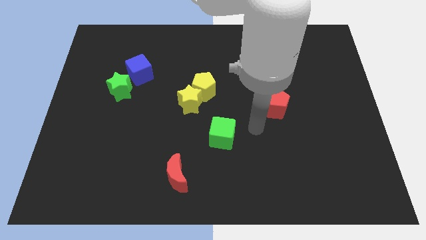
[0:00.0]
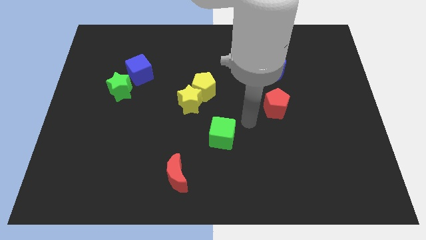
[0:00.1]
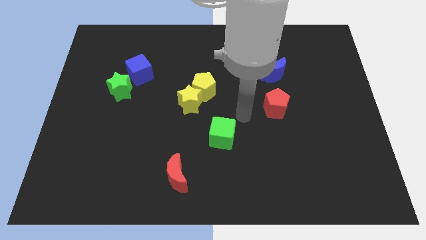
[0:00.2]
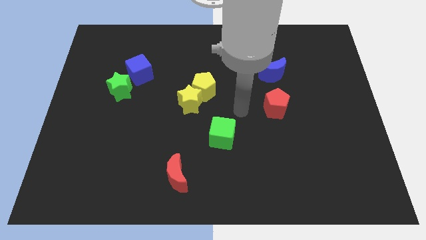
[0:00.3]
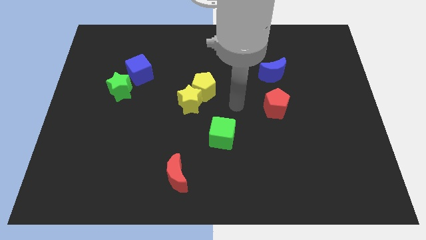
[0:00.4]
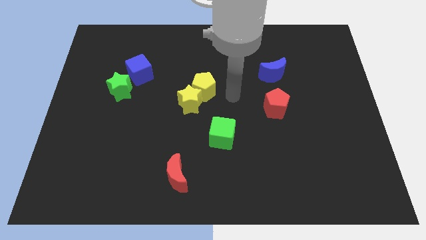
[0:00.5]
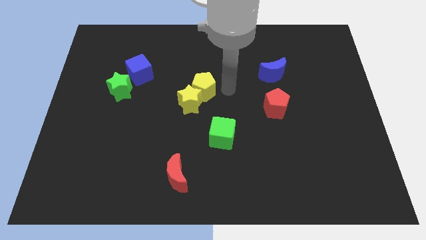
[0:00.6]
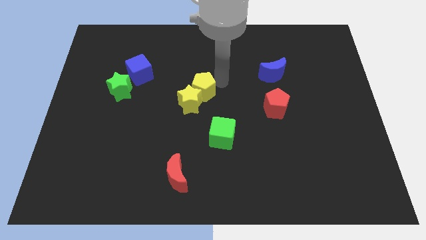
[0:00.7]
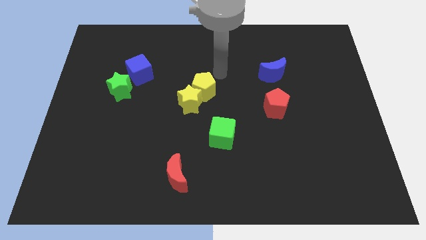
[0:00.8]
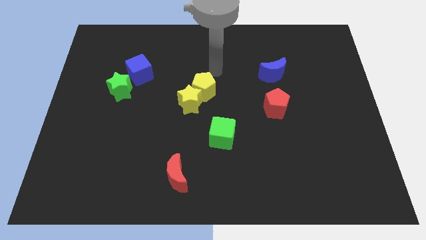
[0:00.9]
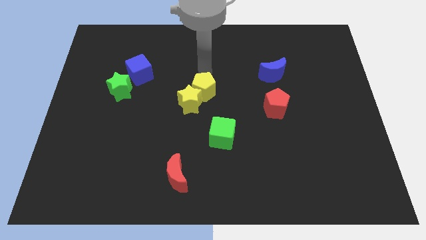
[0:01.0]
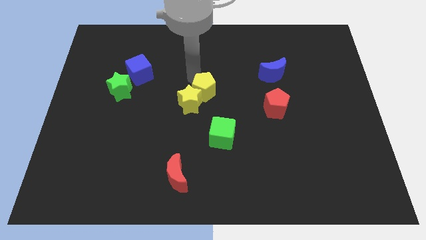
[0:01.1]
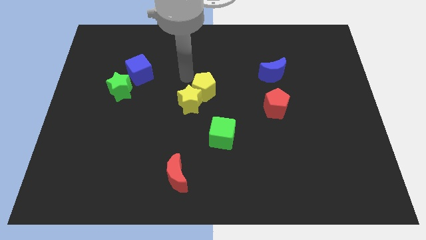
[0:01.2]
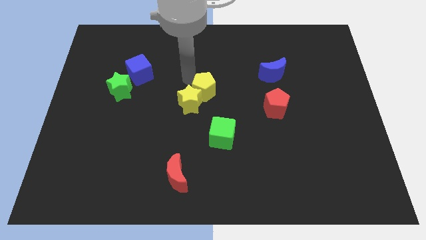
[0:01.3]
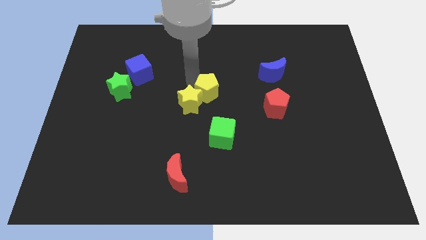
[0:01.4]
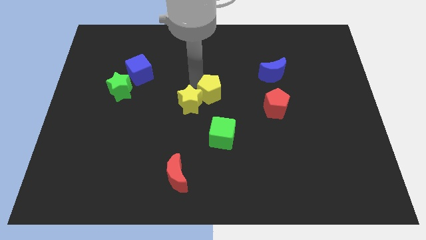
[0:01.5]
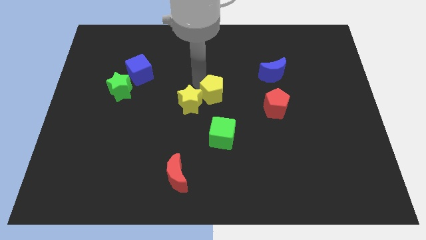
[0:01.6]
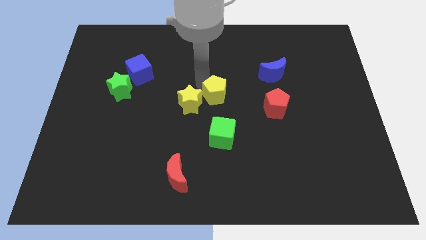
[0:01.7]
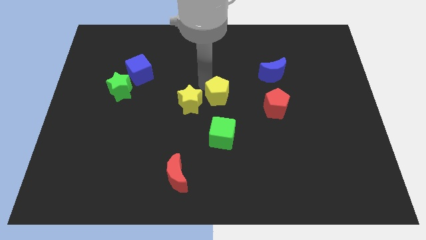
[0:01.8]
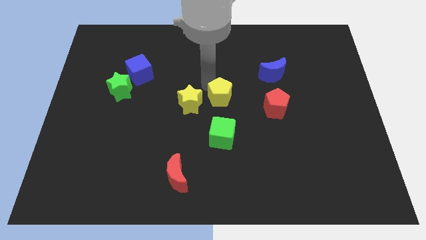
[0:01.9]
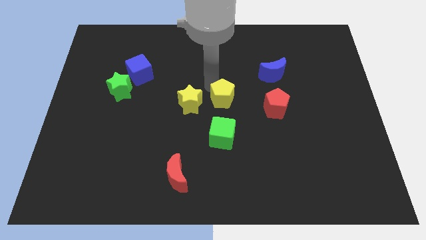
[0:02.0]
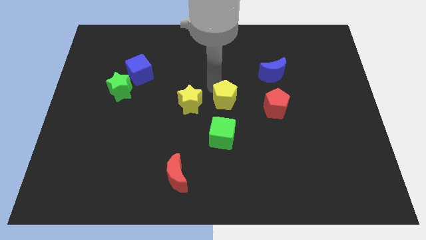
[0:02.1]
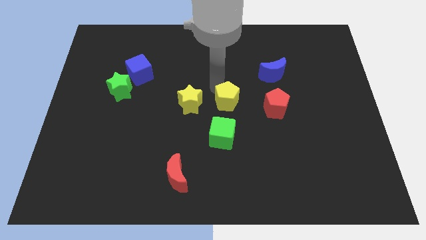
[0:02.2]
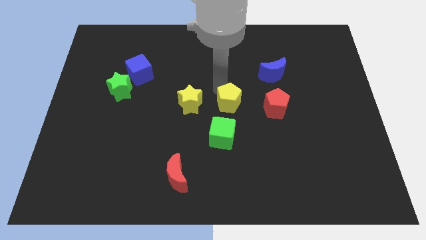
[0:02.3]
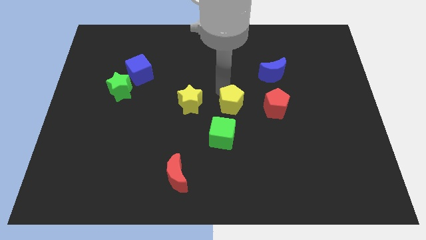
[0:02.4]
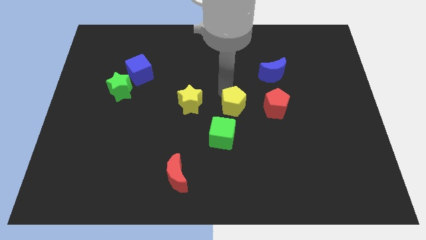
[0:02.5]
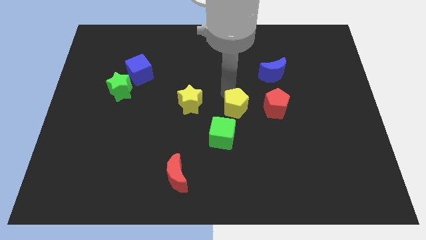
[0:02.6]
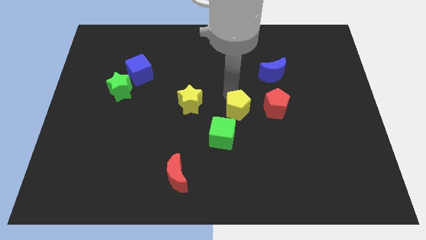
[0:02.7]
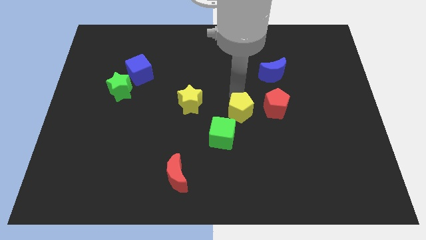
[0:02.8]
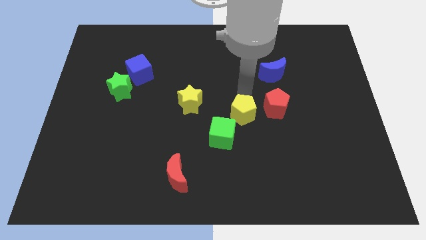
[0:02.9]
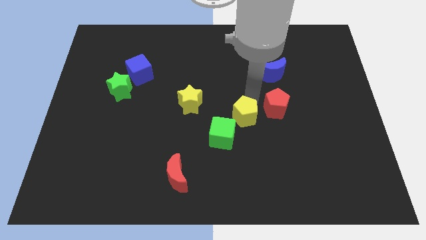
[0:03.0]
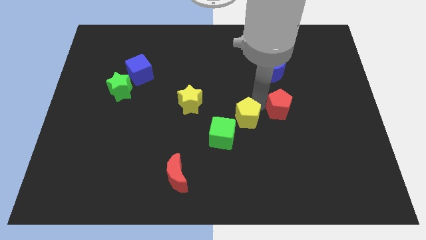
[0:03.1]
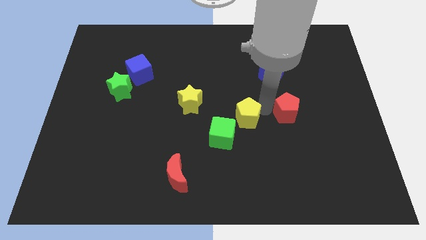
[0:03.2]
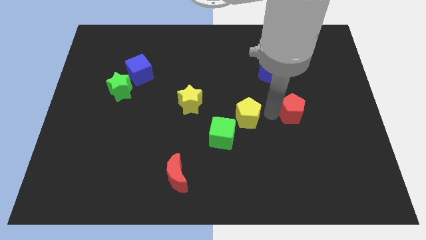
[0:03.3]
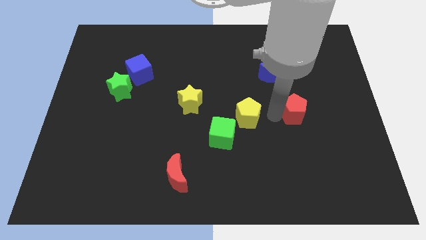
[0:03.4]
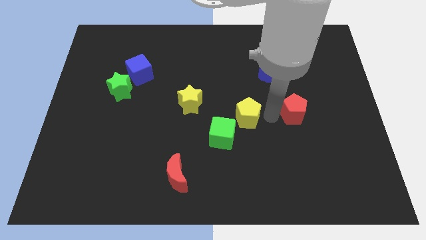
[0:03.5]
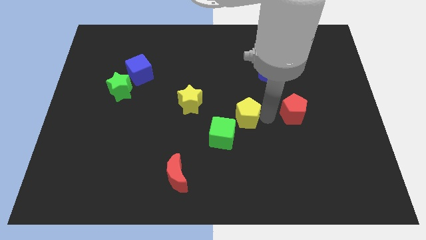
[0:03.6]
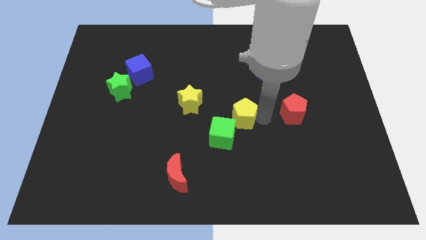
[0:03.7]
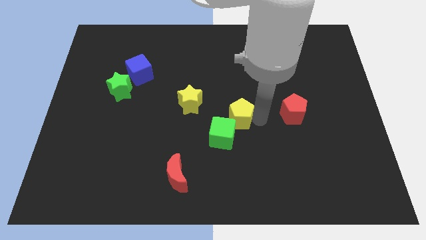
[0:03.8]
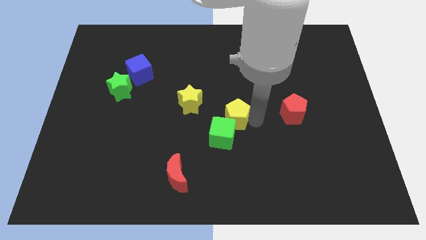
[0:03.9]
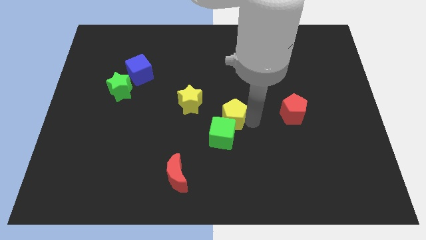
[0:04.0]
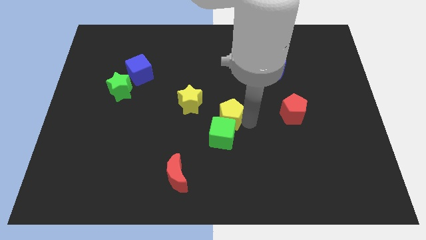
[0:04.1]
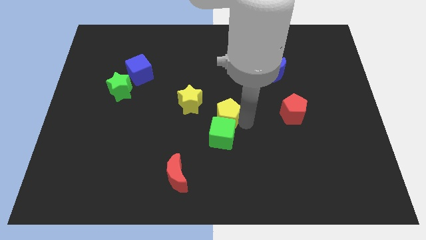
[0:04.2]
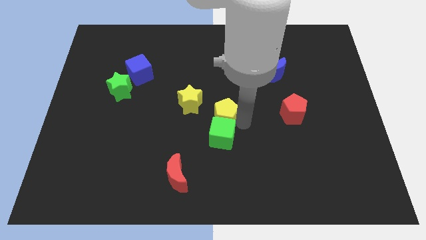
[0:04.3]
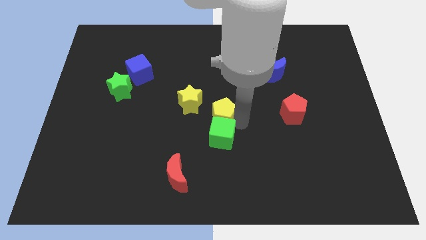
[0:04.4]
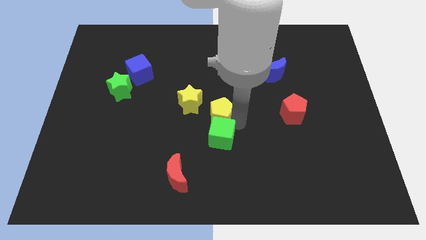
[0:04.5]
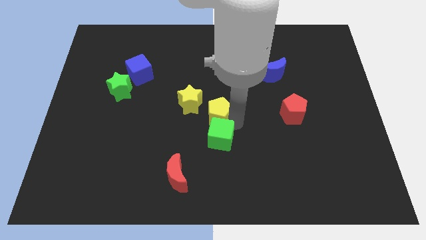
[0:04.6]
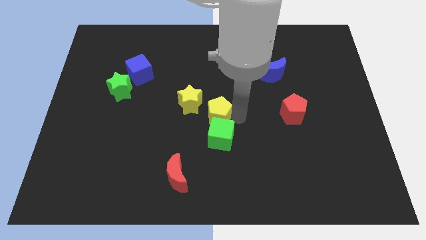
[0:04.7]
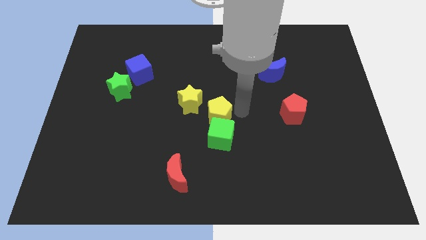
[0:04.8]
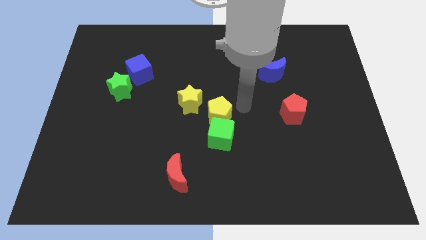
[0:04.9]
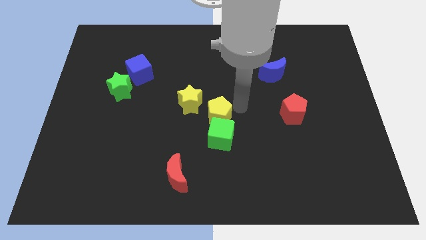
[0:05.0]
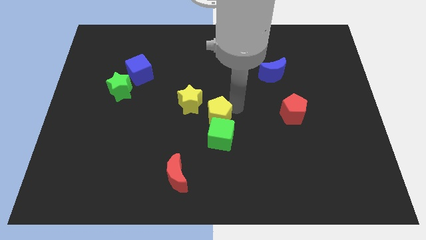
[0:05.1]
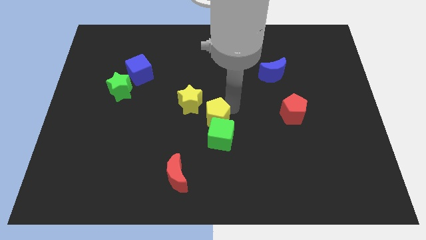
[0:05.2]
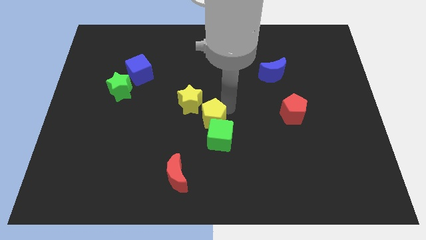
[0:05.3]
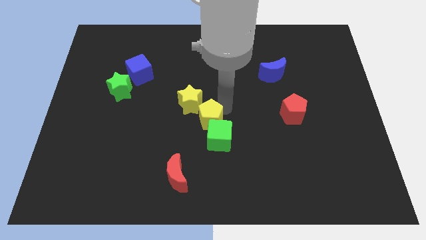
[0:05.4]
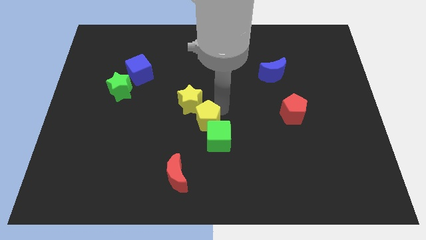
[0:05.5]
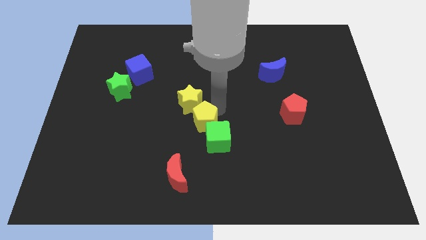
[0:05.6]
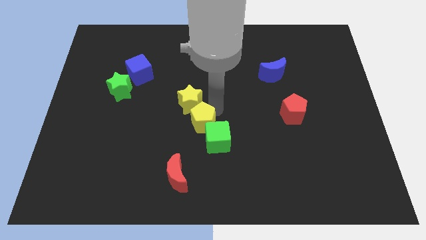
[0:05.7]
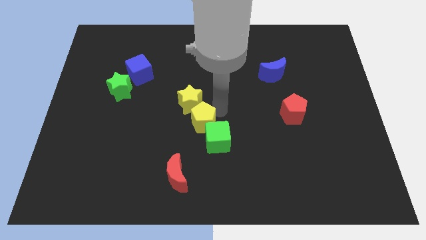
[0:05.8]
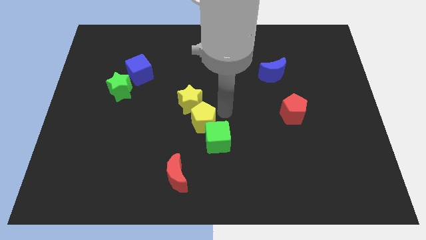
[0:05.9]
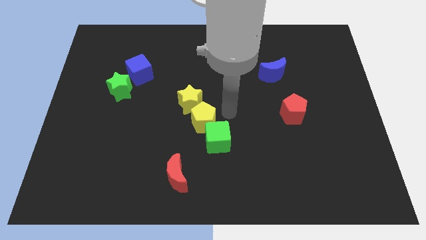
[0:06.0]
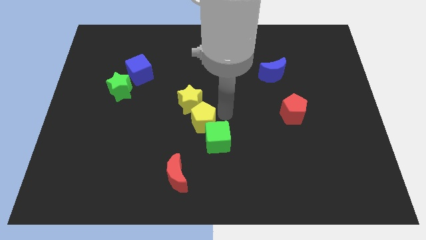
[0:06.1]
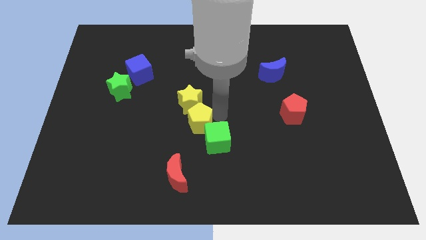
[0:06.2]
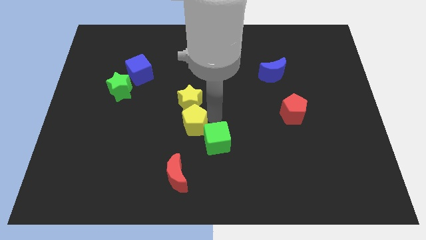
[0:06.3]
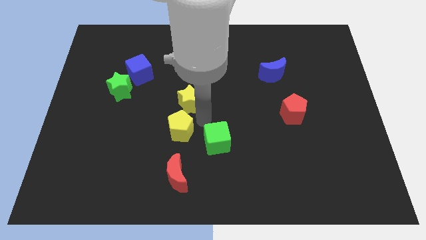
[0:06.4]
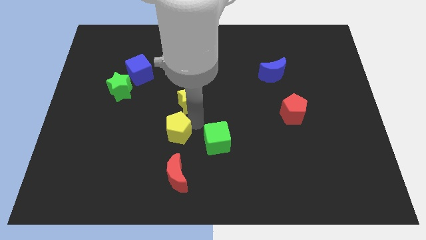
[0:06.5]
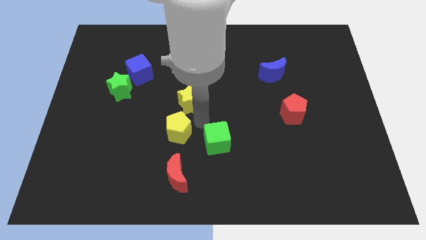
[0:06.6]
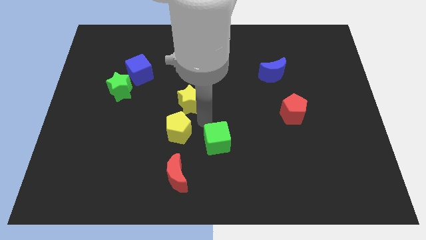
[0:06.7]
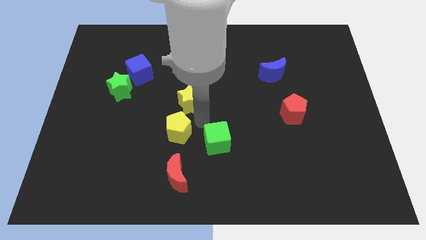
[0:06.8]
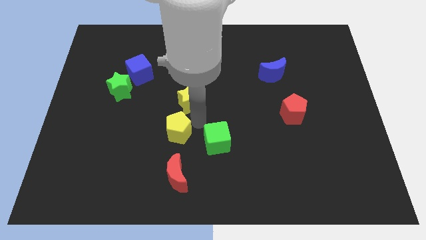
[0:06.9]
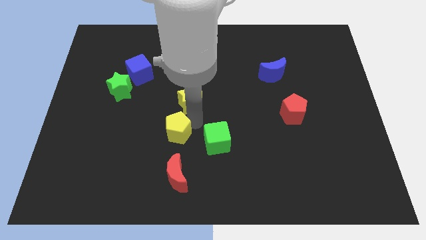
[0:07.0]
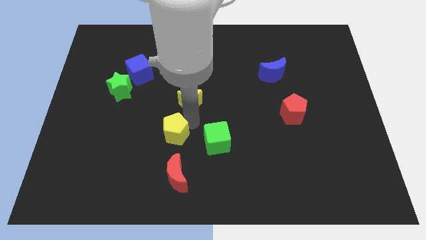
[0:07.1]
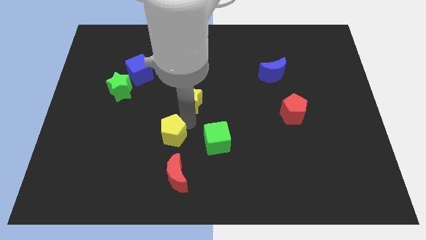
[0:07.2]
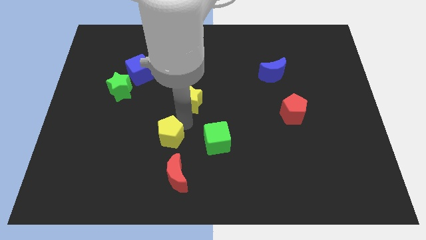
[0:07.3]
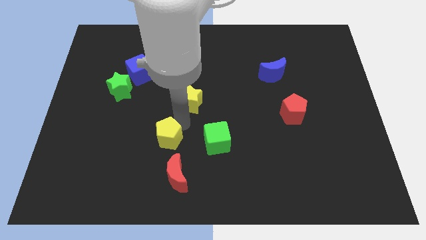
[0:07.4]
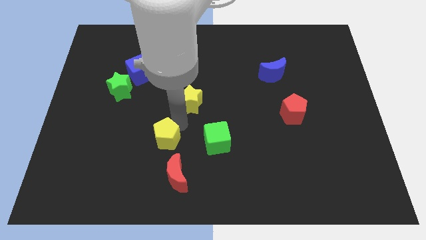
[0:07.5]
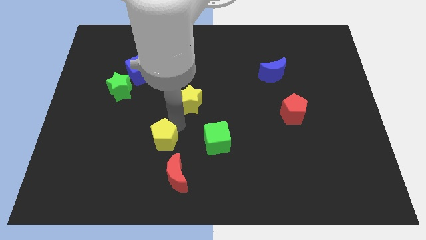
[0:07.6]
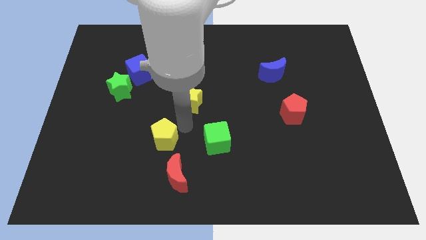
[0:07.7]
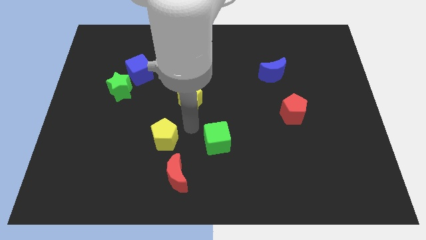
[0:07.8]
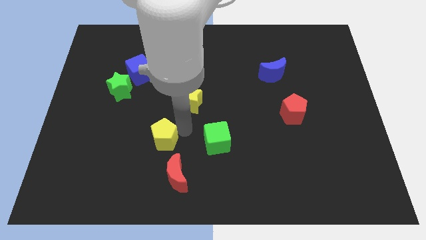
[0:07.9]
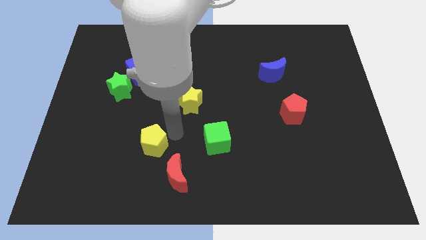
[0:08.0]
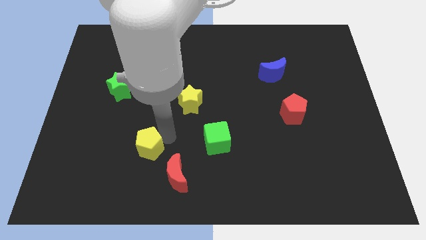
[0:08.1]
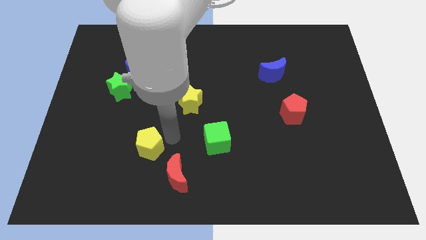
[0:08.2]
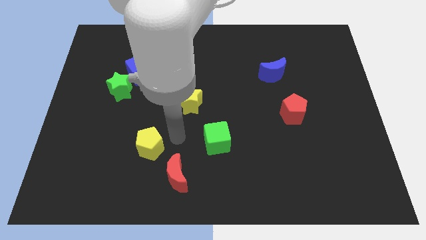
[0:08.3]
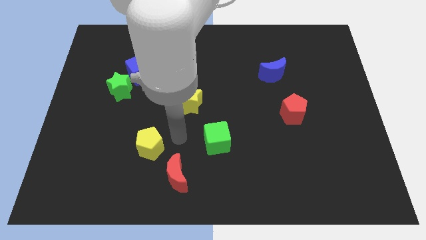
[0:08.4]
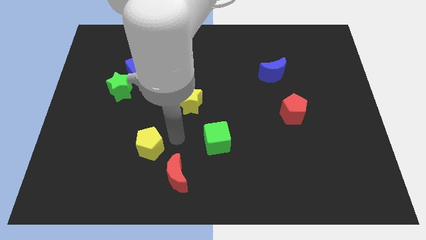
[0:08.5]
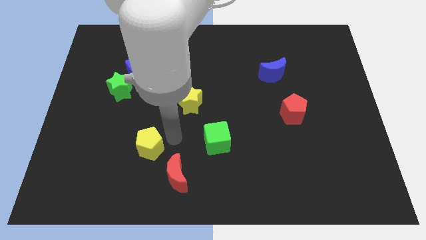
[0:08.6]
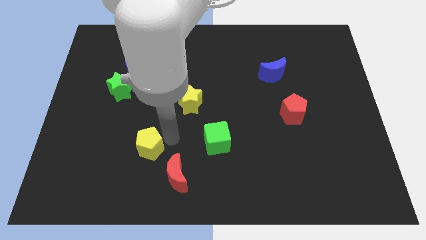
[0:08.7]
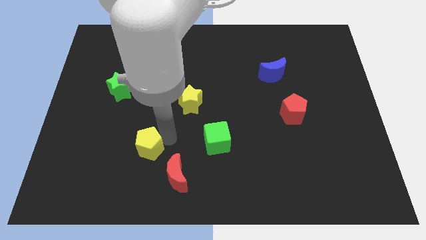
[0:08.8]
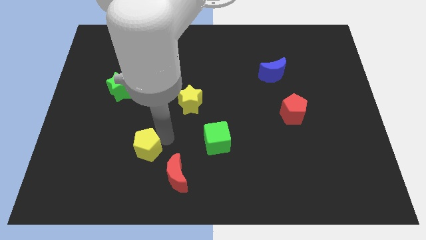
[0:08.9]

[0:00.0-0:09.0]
push the yellow pentagon downwards and to the left diagonally
